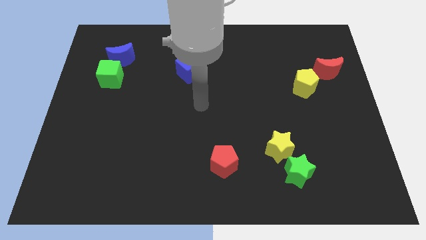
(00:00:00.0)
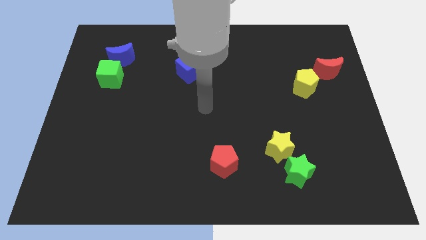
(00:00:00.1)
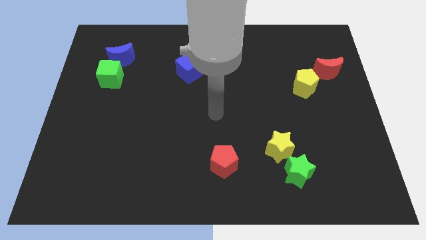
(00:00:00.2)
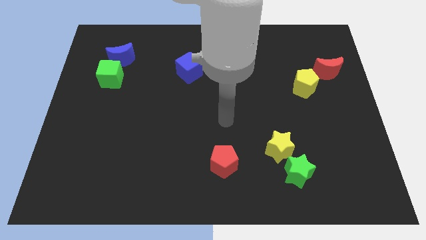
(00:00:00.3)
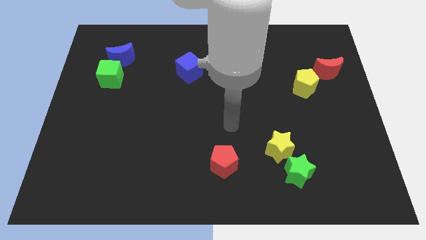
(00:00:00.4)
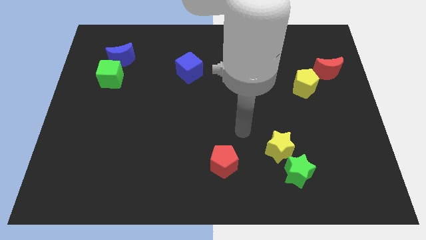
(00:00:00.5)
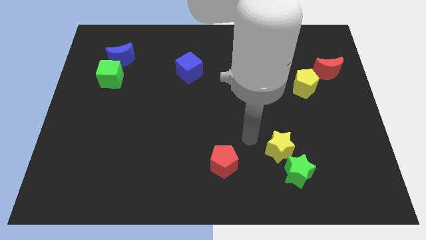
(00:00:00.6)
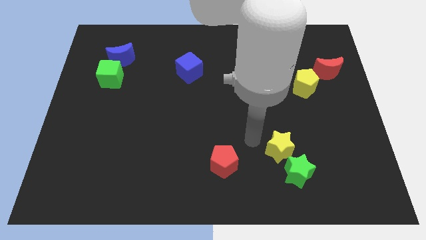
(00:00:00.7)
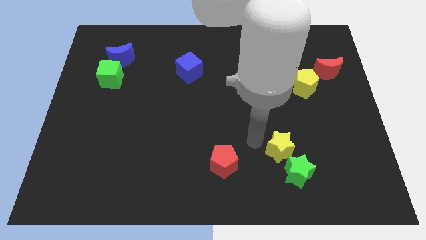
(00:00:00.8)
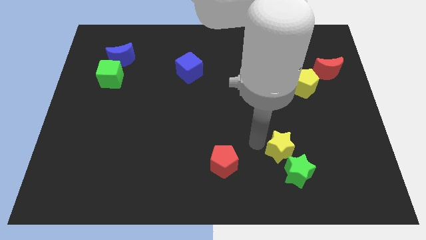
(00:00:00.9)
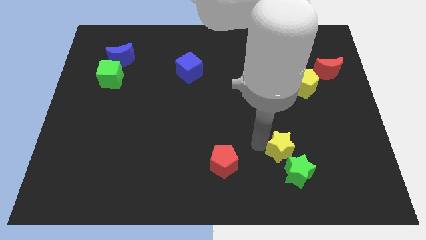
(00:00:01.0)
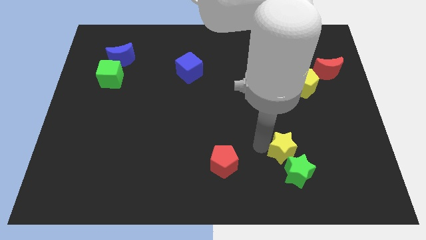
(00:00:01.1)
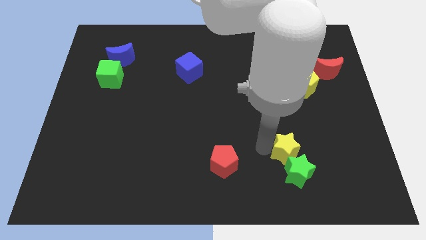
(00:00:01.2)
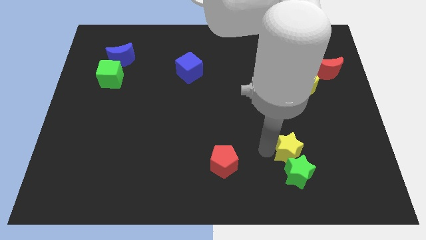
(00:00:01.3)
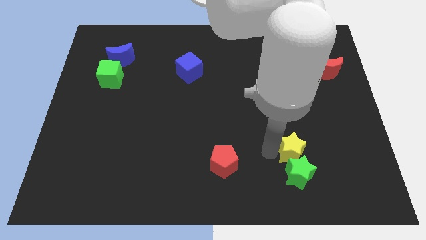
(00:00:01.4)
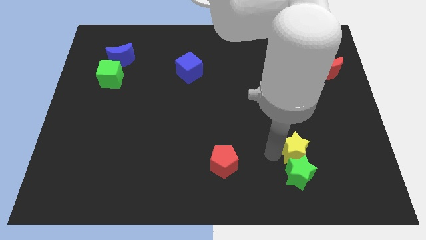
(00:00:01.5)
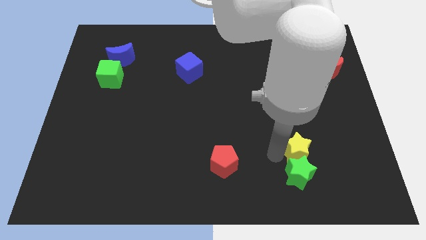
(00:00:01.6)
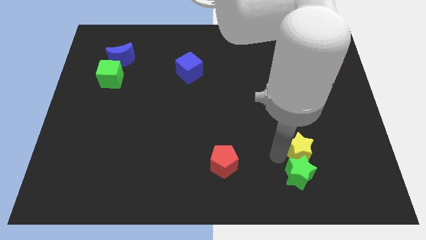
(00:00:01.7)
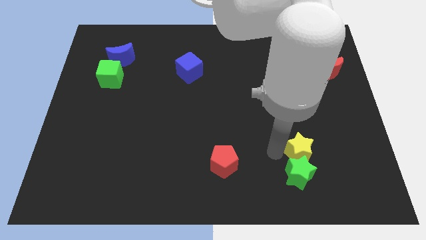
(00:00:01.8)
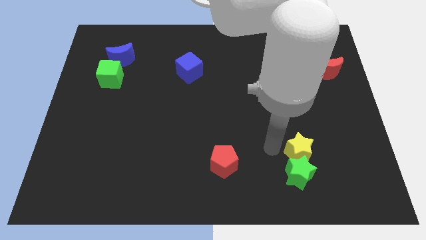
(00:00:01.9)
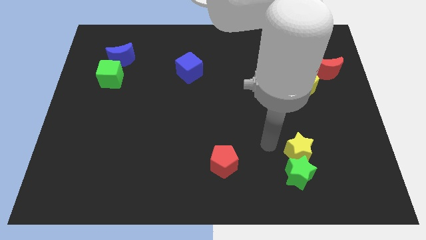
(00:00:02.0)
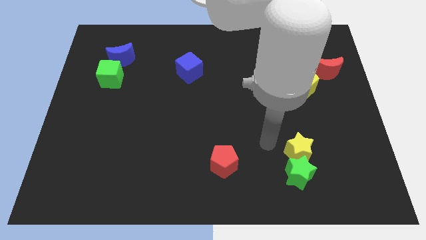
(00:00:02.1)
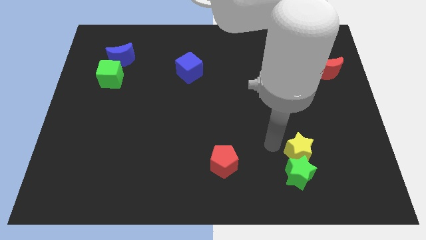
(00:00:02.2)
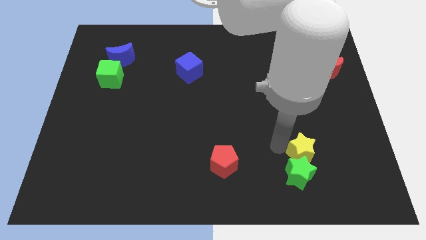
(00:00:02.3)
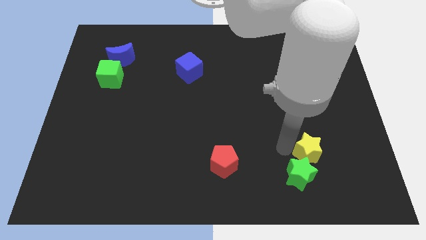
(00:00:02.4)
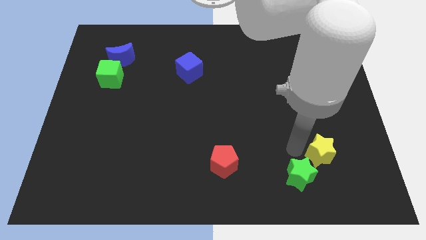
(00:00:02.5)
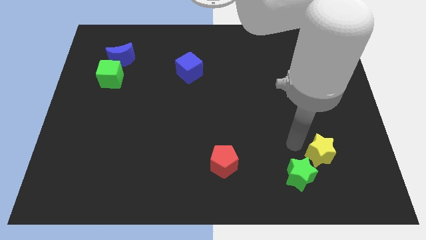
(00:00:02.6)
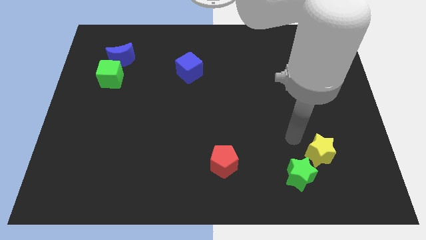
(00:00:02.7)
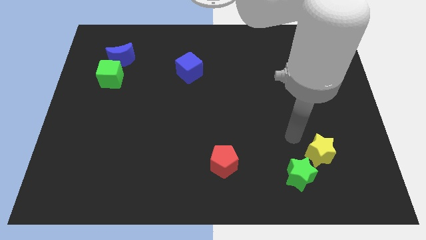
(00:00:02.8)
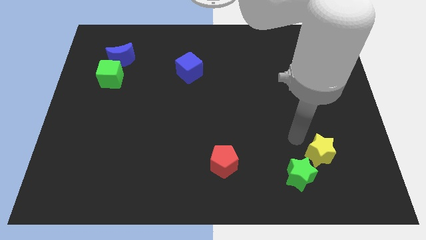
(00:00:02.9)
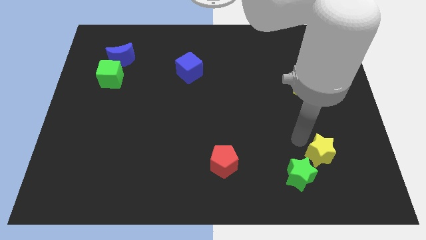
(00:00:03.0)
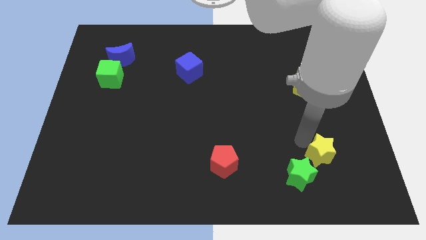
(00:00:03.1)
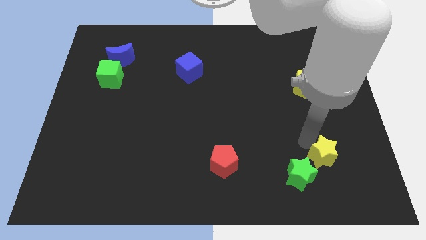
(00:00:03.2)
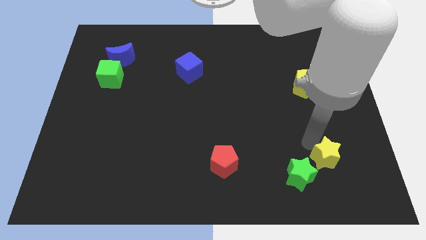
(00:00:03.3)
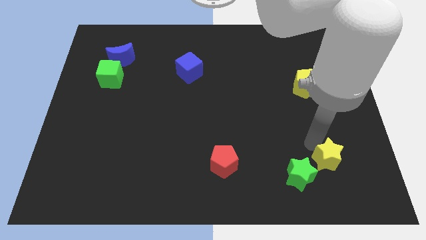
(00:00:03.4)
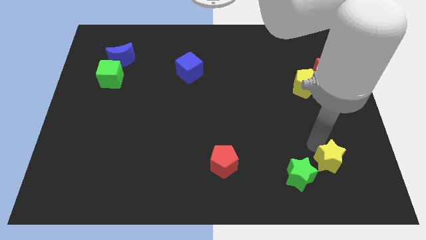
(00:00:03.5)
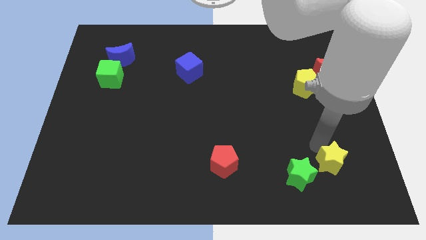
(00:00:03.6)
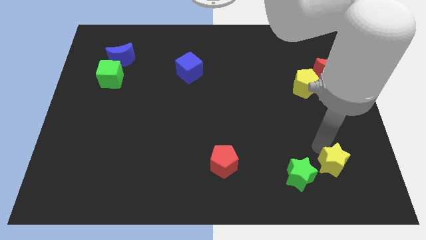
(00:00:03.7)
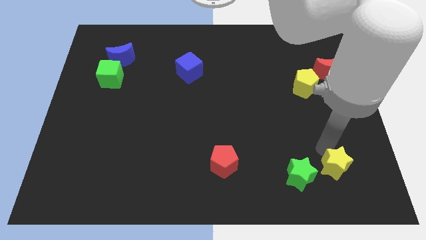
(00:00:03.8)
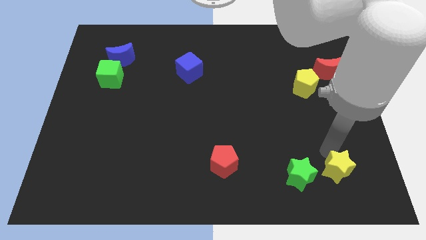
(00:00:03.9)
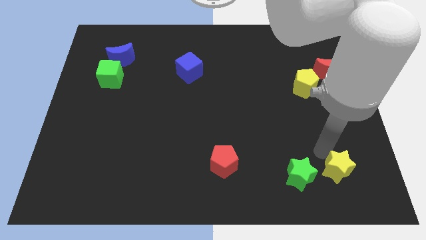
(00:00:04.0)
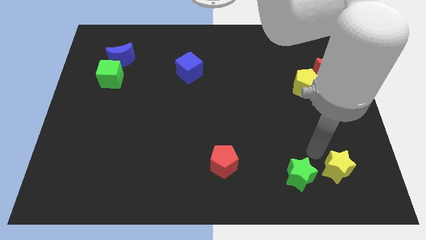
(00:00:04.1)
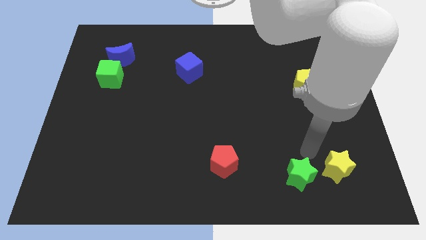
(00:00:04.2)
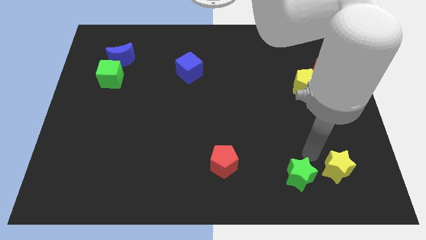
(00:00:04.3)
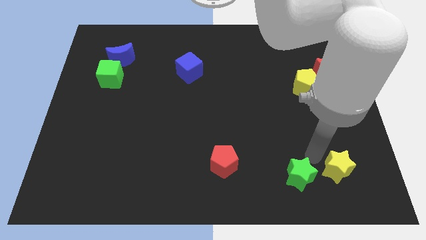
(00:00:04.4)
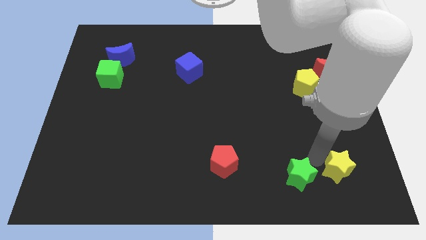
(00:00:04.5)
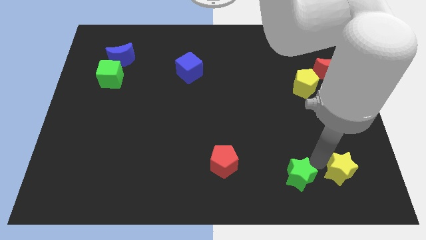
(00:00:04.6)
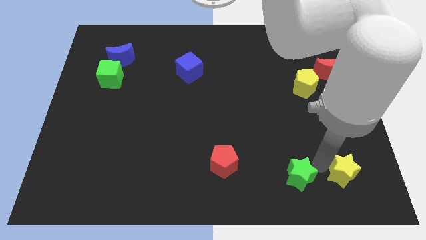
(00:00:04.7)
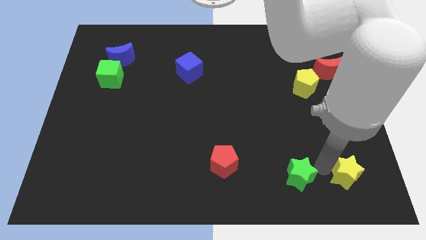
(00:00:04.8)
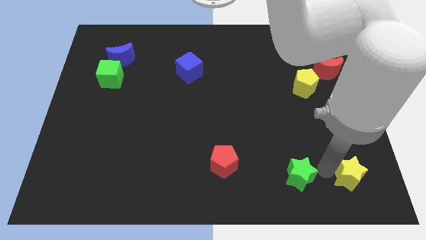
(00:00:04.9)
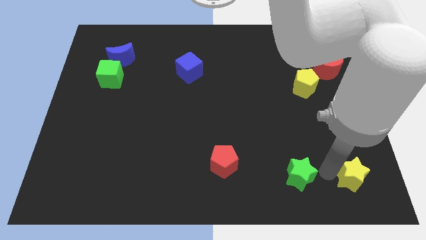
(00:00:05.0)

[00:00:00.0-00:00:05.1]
push the yellow star to the bottom right
